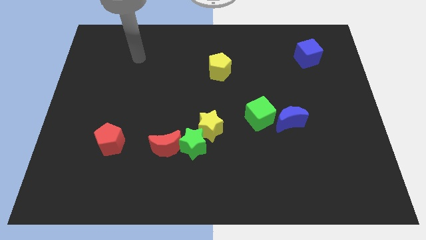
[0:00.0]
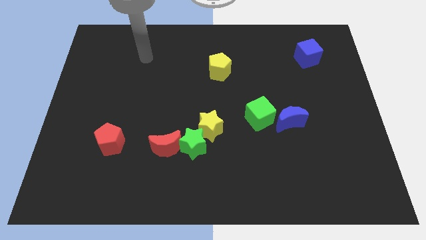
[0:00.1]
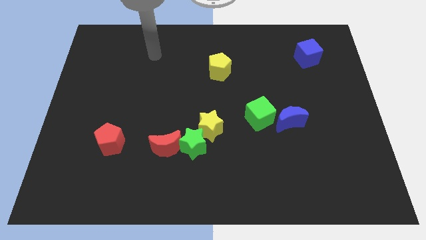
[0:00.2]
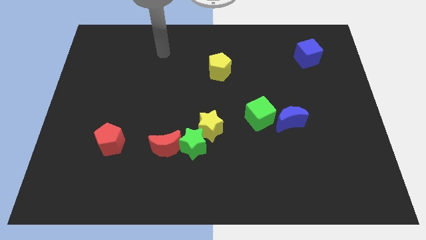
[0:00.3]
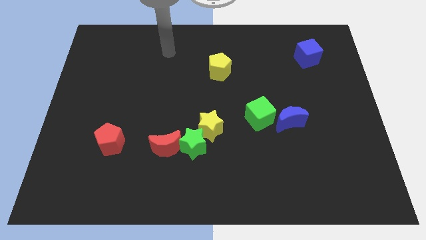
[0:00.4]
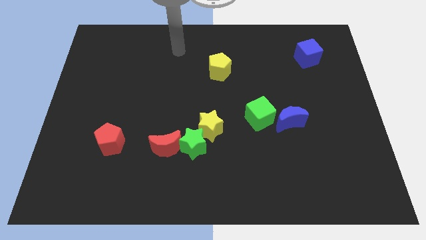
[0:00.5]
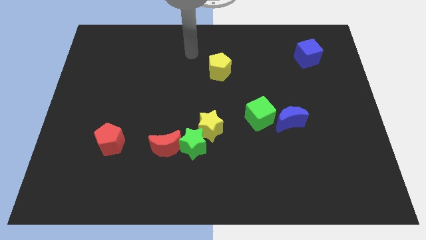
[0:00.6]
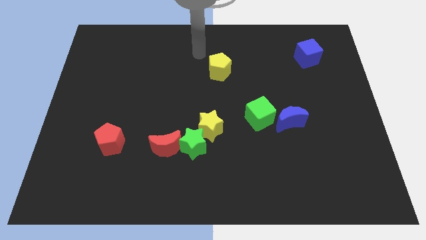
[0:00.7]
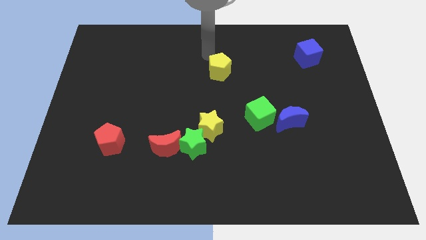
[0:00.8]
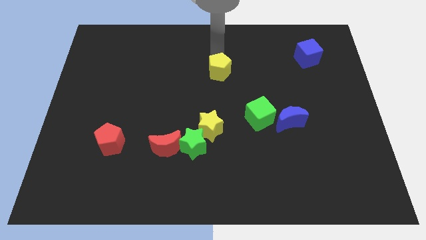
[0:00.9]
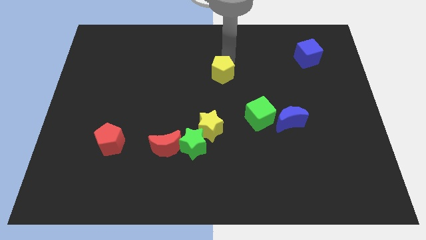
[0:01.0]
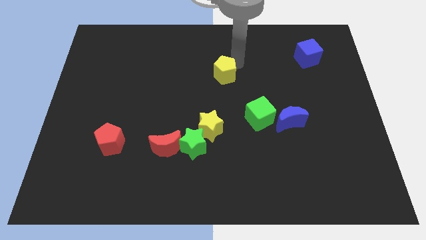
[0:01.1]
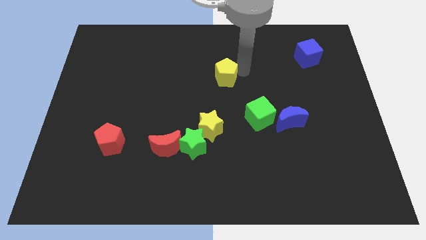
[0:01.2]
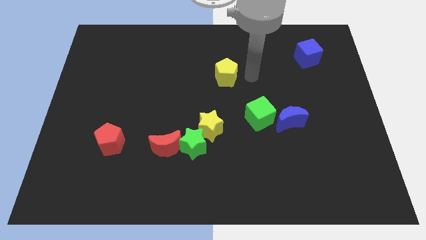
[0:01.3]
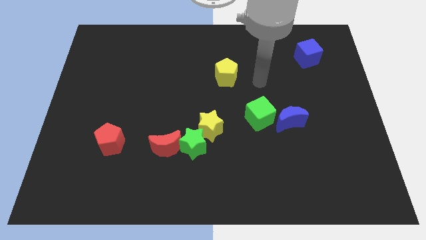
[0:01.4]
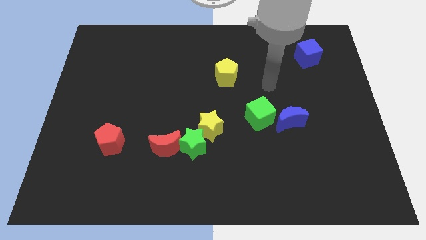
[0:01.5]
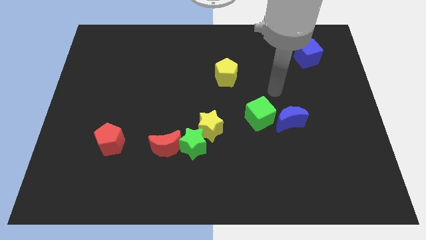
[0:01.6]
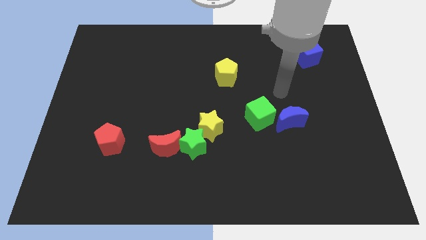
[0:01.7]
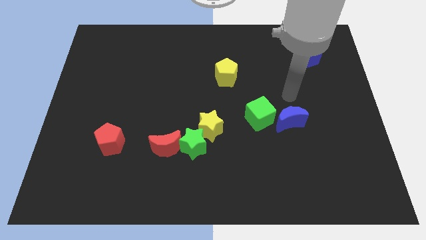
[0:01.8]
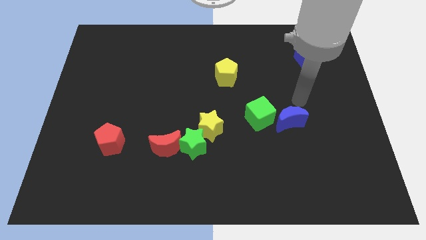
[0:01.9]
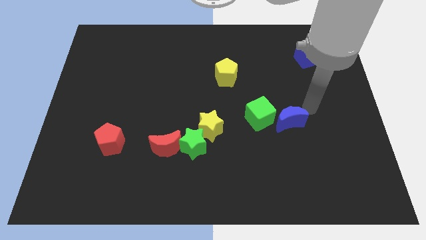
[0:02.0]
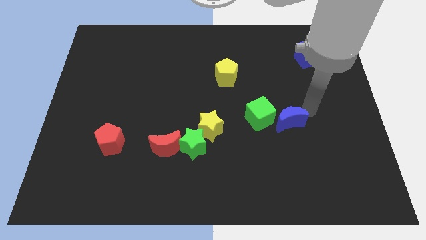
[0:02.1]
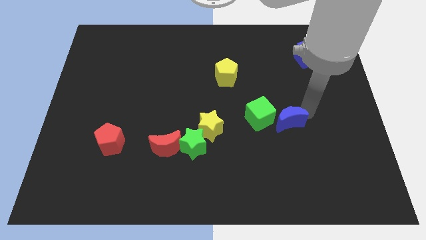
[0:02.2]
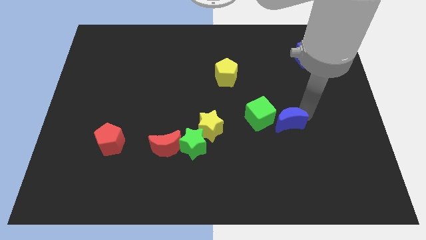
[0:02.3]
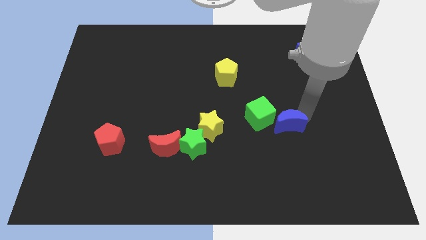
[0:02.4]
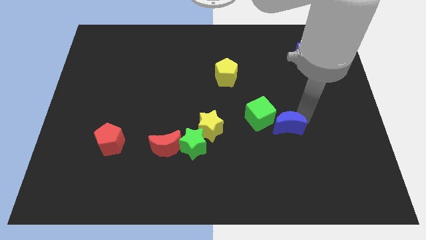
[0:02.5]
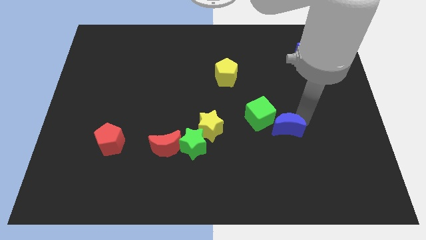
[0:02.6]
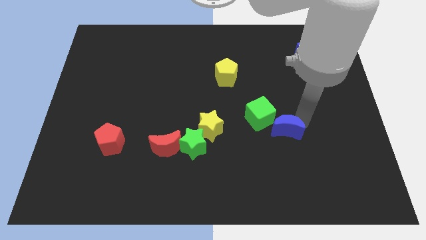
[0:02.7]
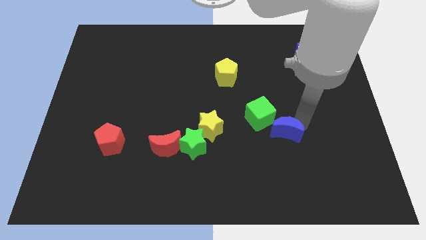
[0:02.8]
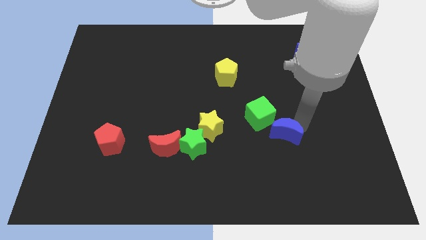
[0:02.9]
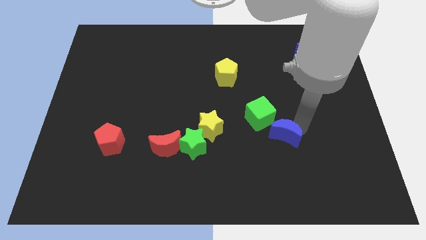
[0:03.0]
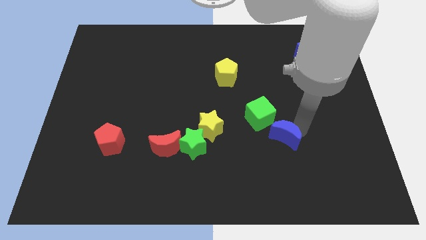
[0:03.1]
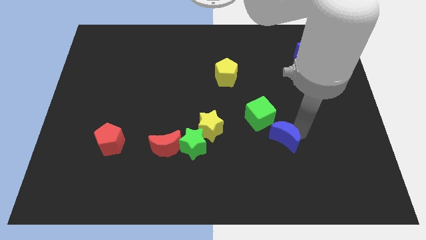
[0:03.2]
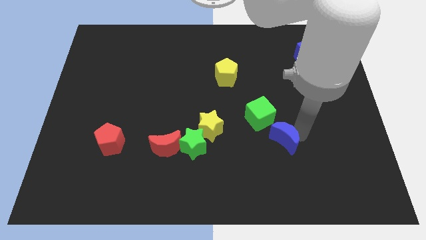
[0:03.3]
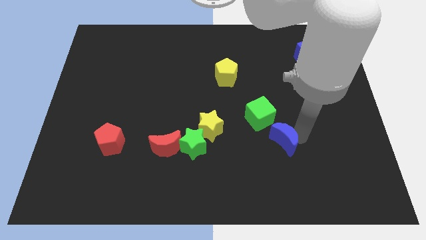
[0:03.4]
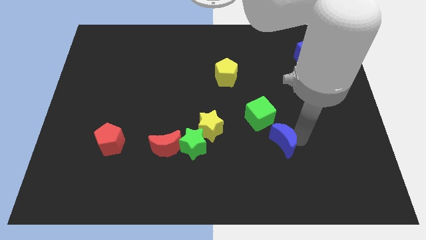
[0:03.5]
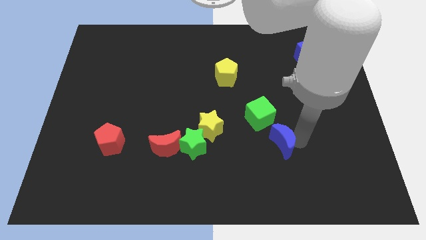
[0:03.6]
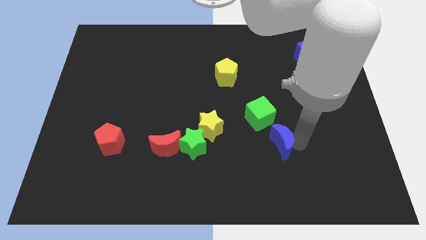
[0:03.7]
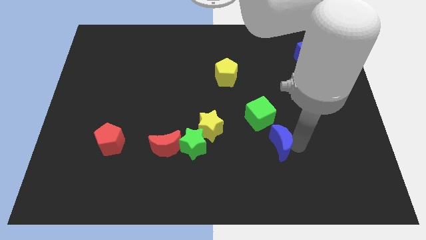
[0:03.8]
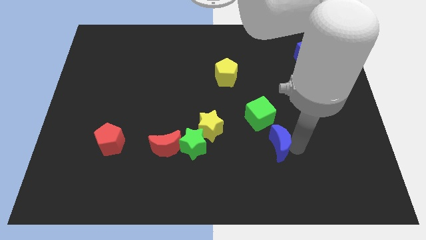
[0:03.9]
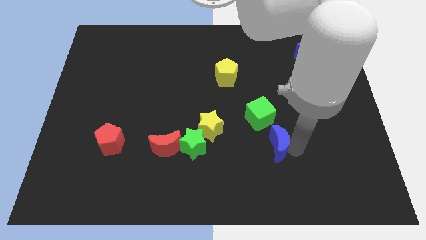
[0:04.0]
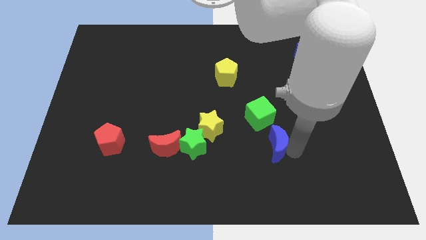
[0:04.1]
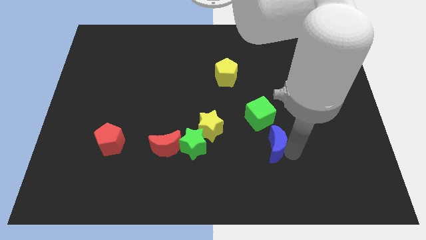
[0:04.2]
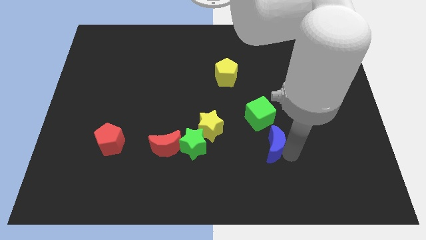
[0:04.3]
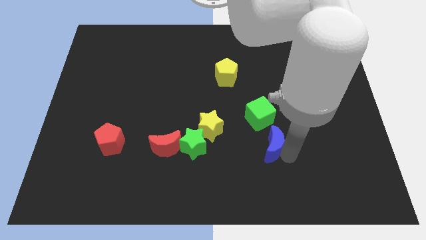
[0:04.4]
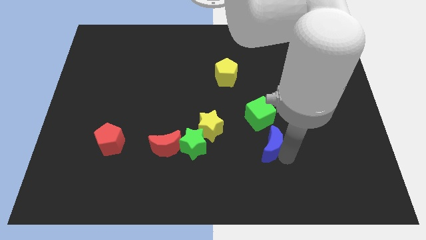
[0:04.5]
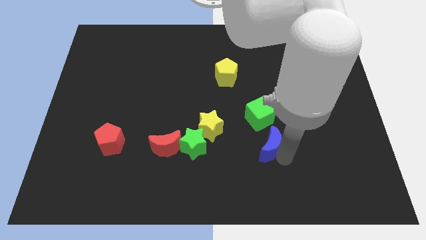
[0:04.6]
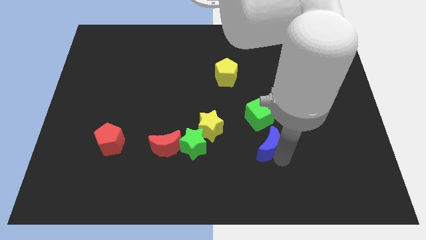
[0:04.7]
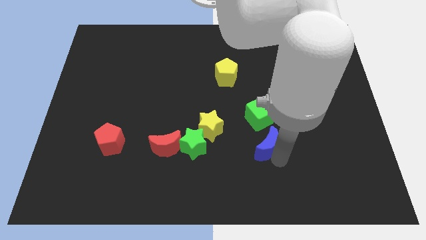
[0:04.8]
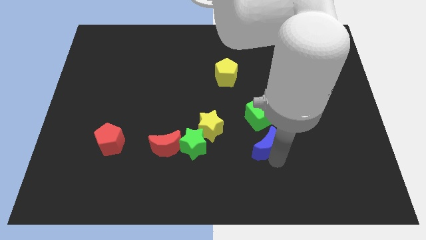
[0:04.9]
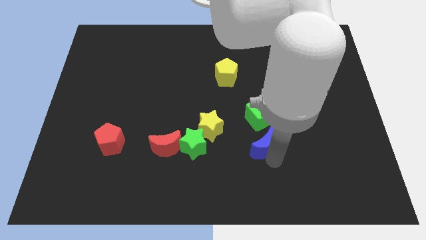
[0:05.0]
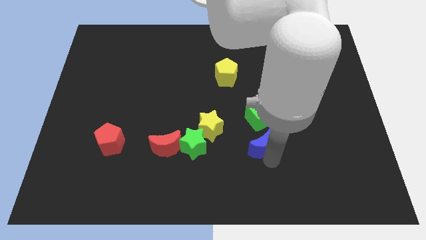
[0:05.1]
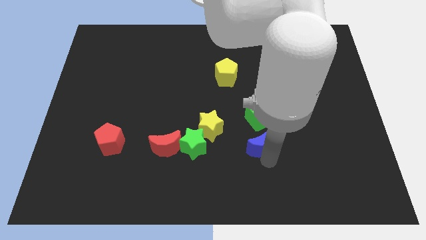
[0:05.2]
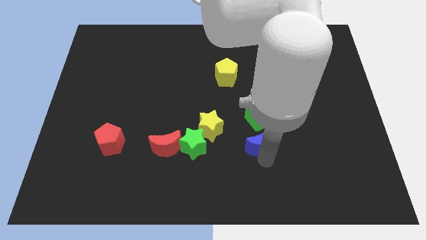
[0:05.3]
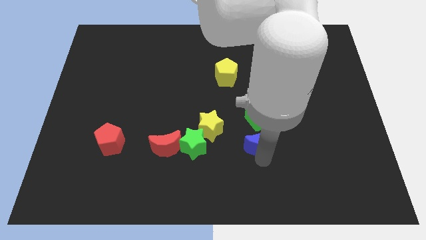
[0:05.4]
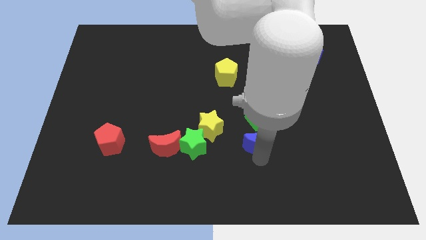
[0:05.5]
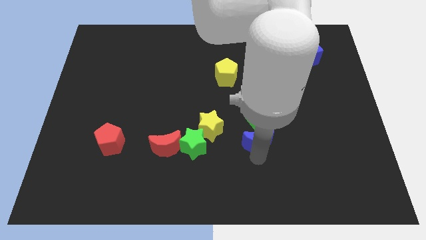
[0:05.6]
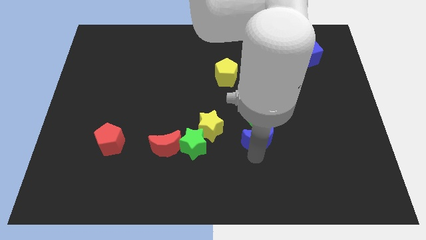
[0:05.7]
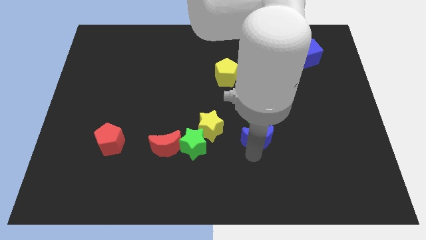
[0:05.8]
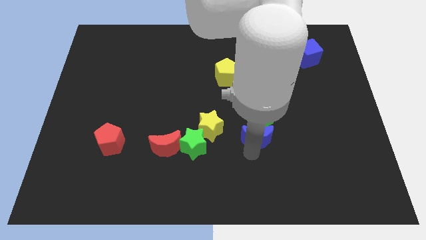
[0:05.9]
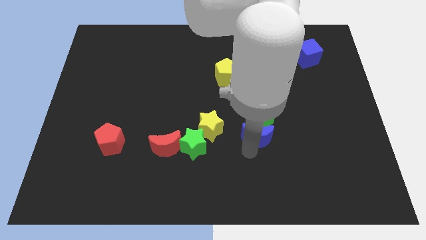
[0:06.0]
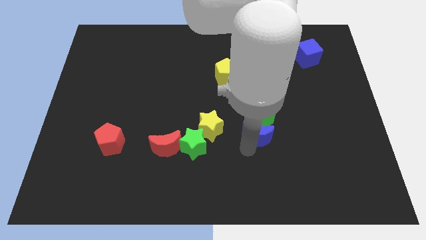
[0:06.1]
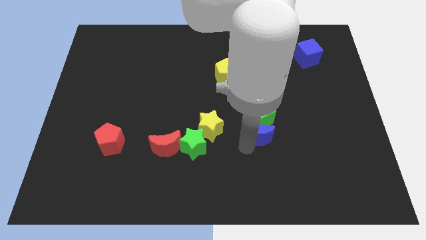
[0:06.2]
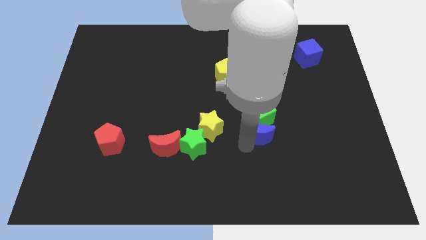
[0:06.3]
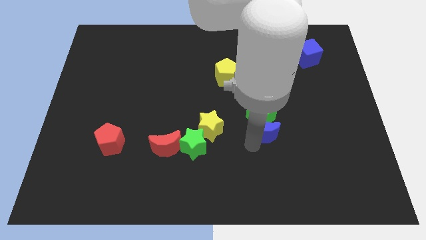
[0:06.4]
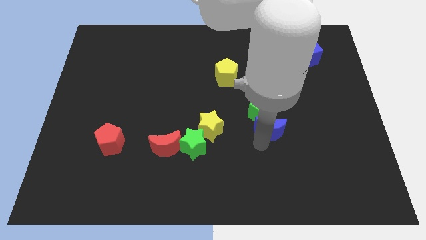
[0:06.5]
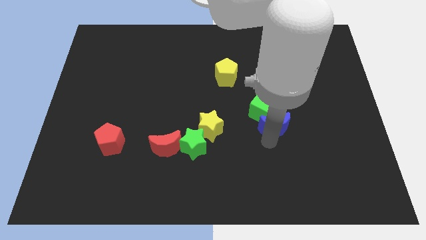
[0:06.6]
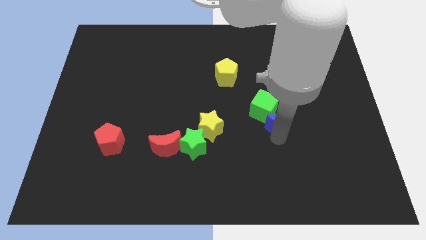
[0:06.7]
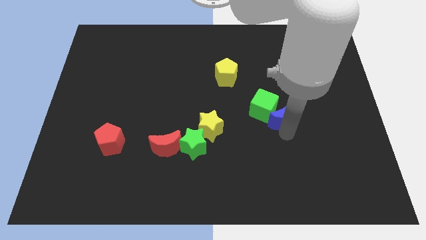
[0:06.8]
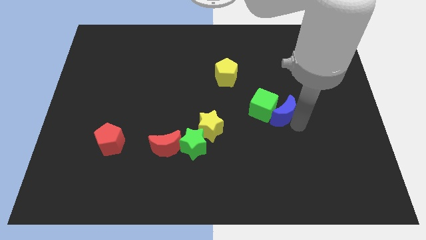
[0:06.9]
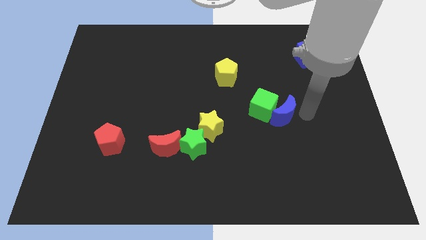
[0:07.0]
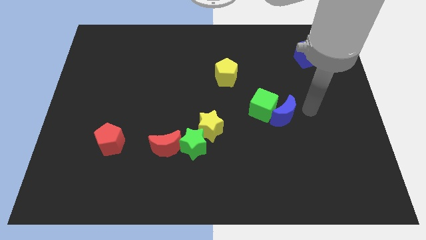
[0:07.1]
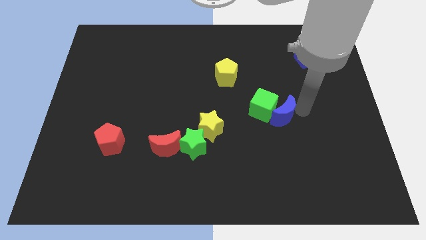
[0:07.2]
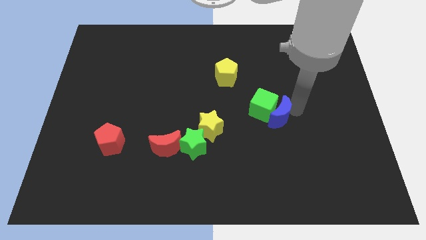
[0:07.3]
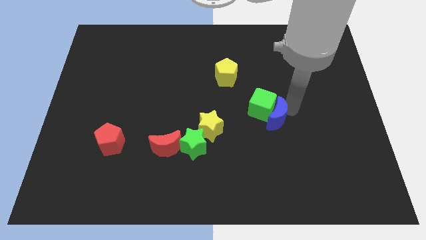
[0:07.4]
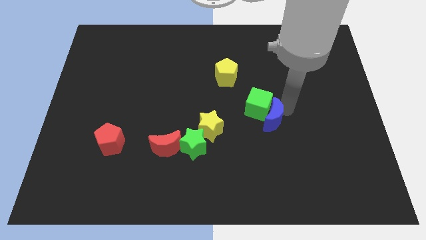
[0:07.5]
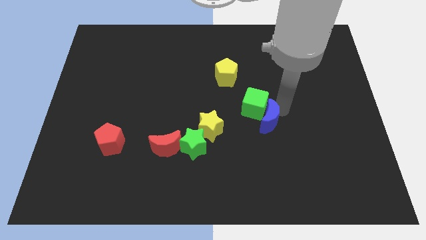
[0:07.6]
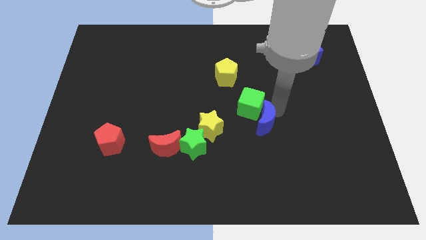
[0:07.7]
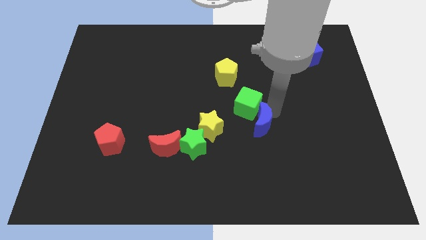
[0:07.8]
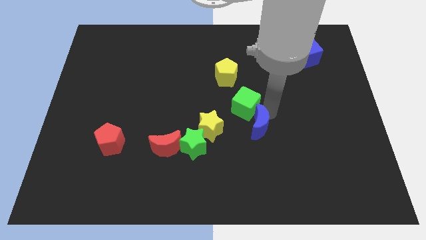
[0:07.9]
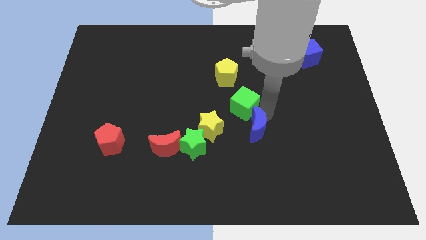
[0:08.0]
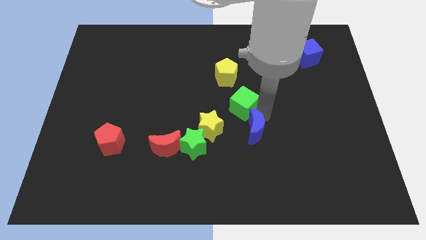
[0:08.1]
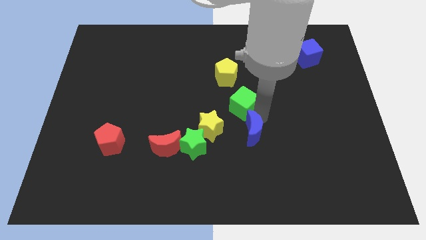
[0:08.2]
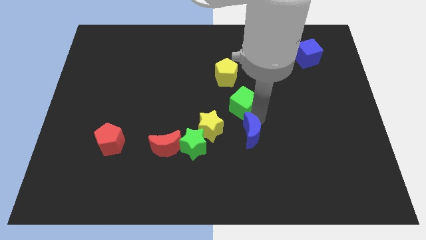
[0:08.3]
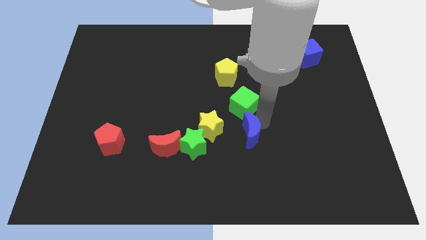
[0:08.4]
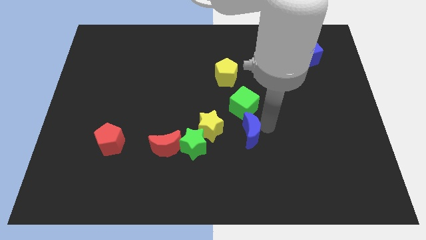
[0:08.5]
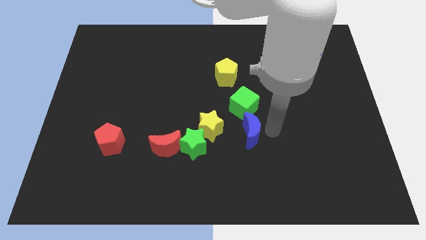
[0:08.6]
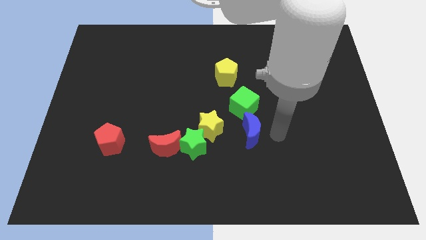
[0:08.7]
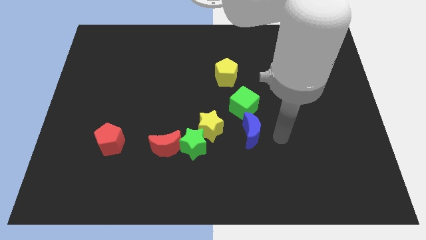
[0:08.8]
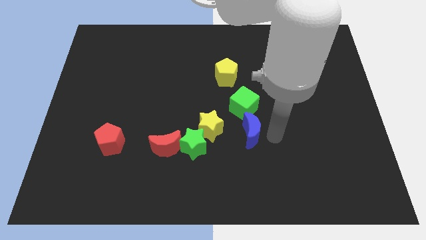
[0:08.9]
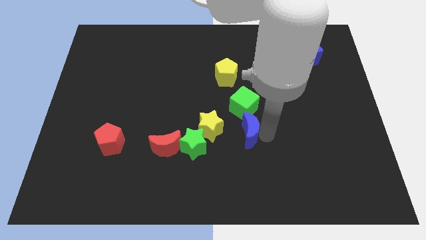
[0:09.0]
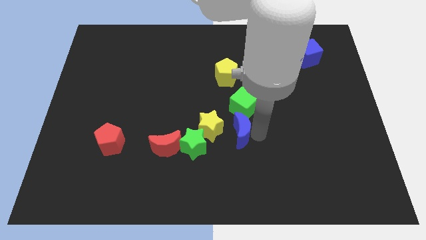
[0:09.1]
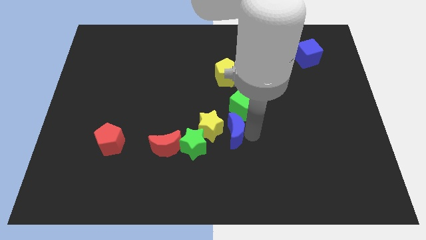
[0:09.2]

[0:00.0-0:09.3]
push the blue moon to the yellow star
